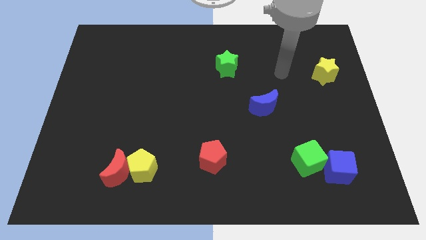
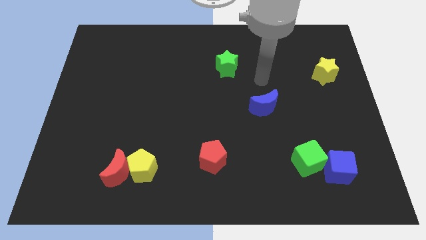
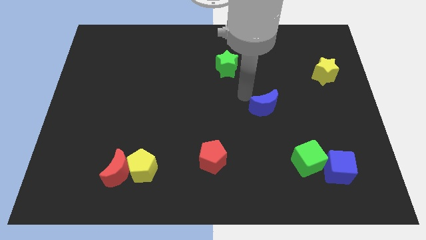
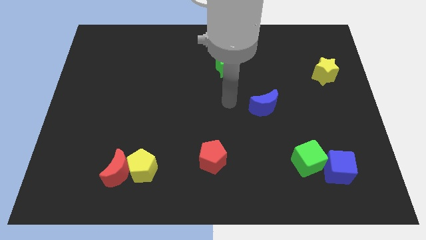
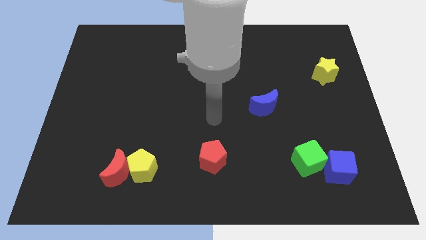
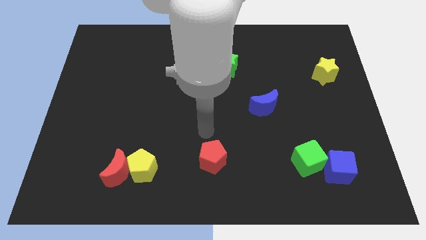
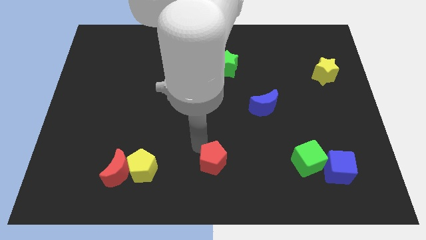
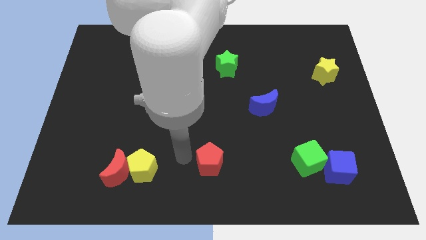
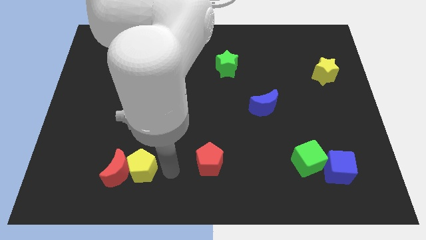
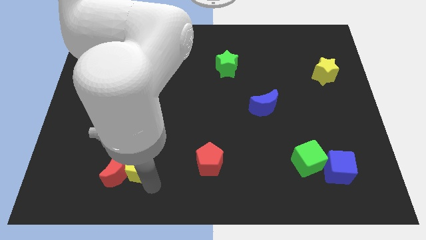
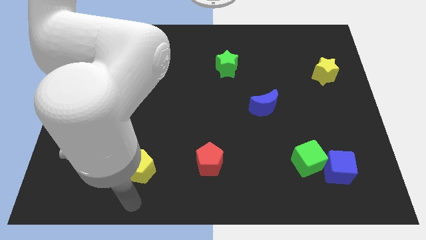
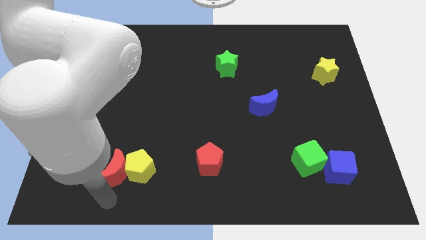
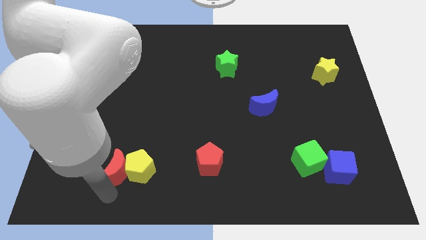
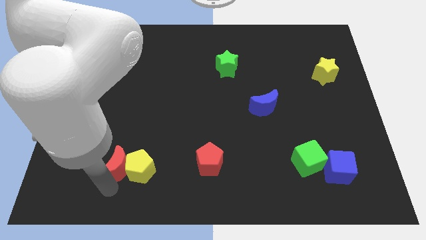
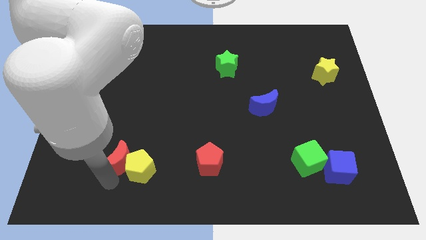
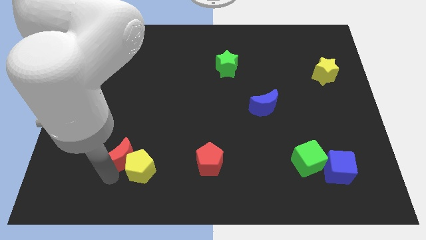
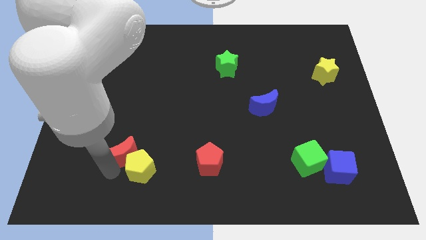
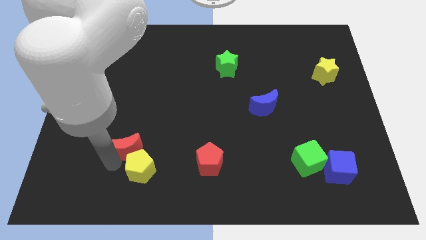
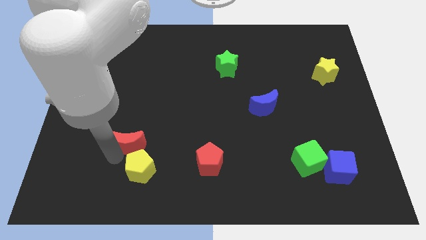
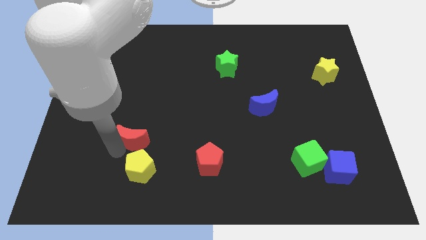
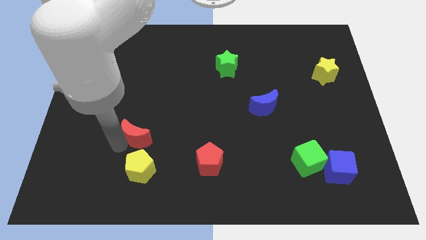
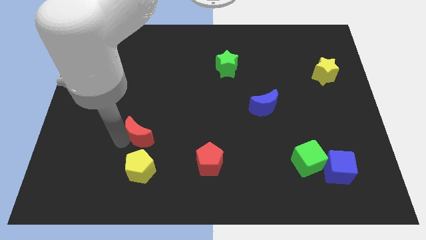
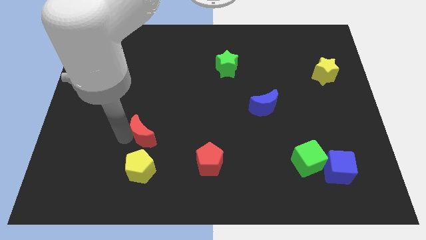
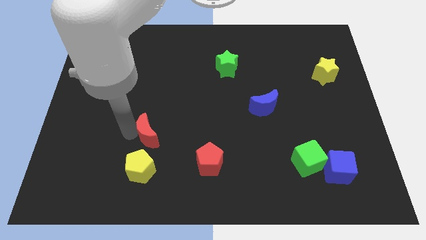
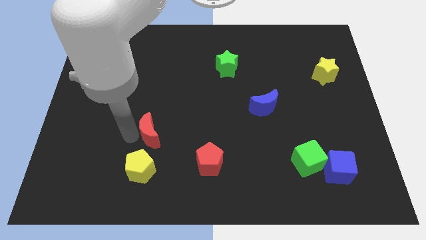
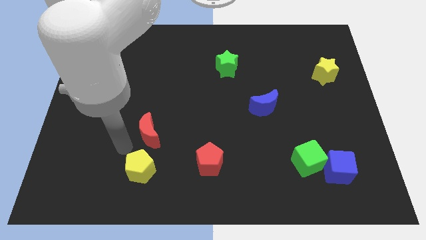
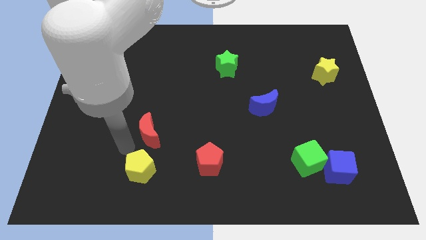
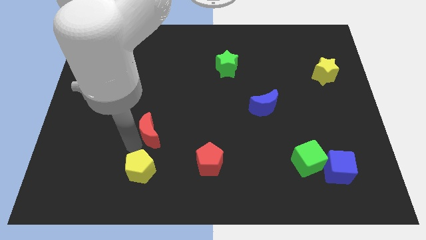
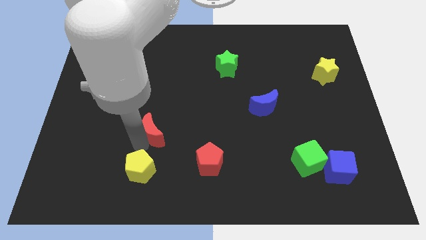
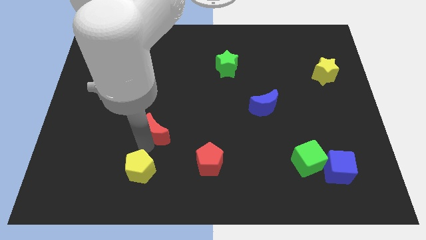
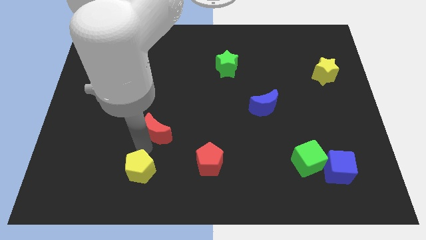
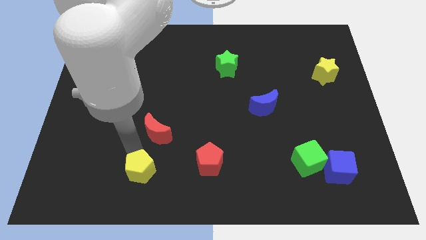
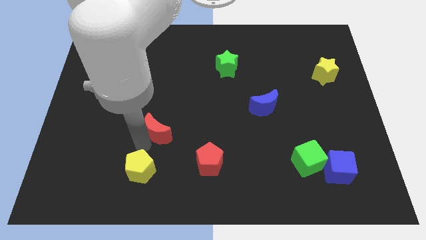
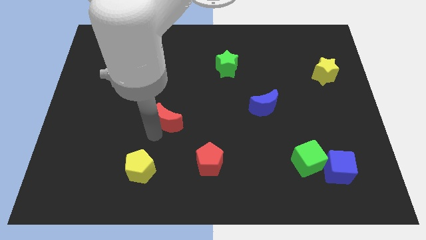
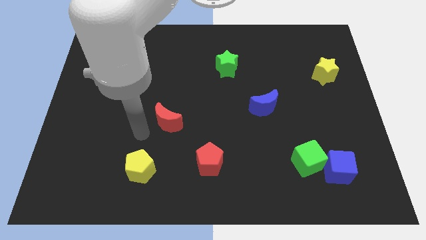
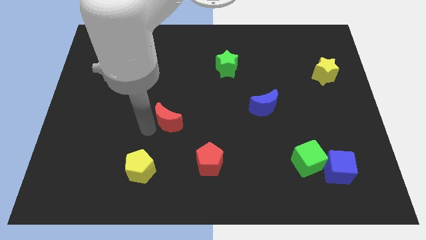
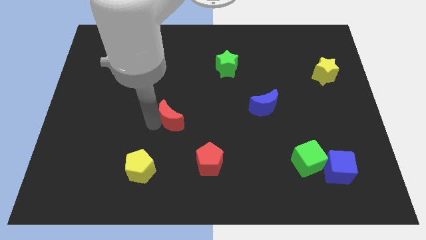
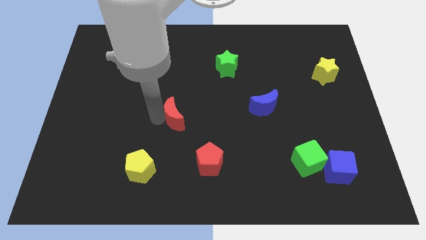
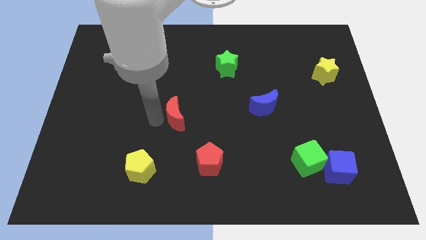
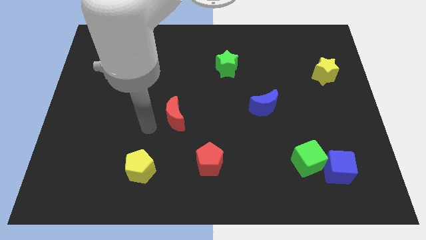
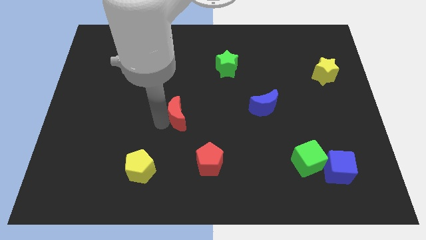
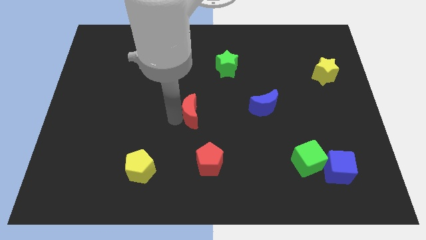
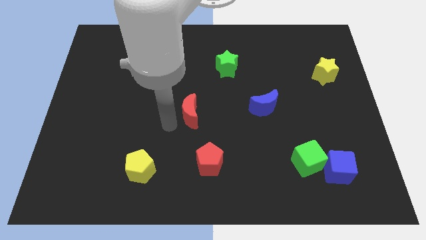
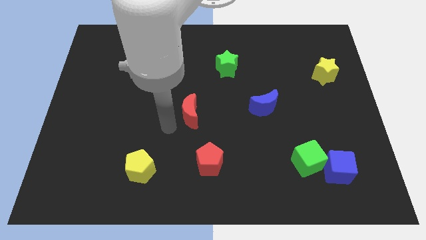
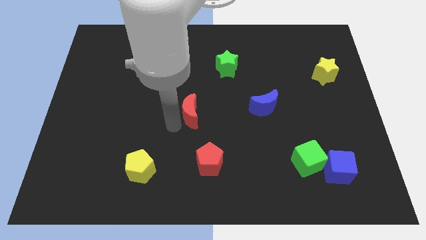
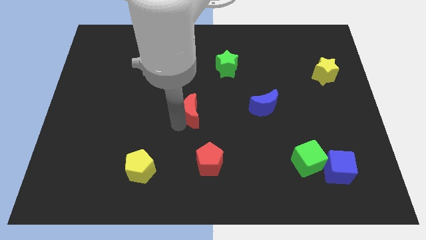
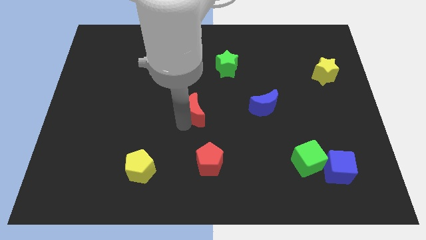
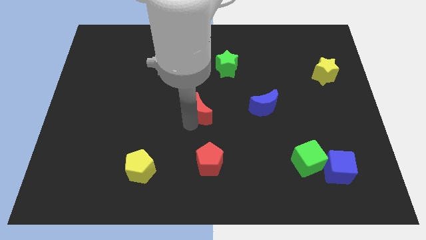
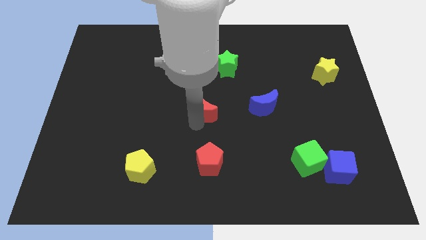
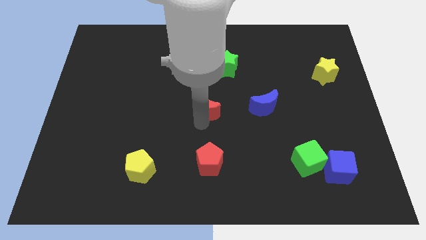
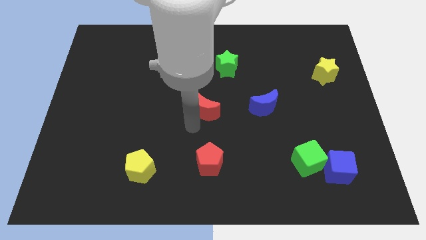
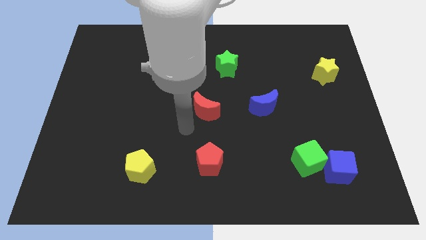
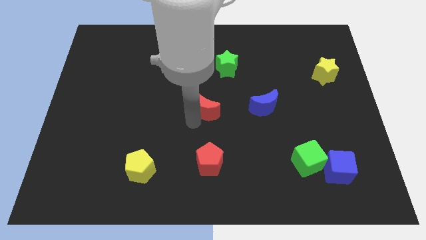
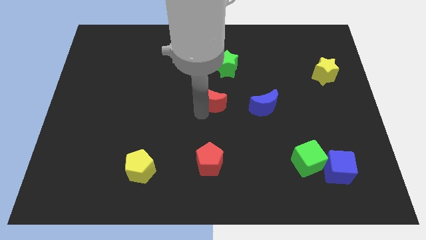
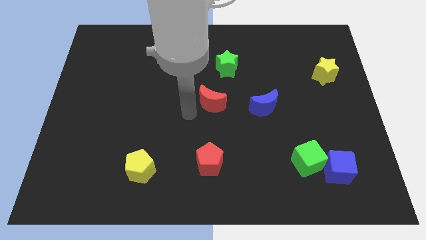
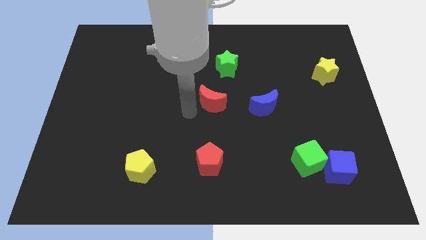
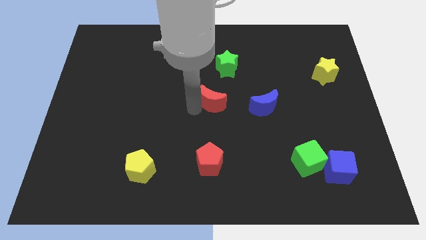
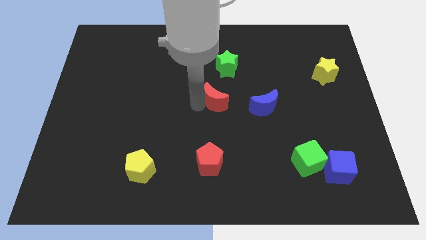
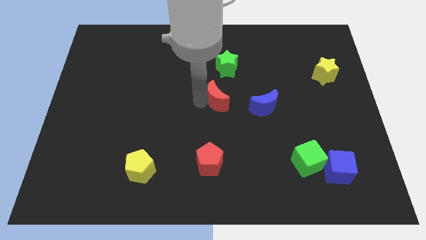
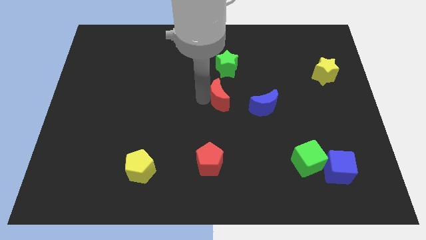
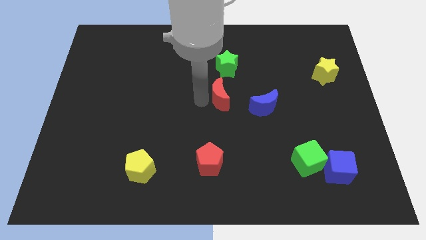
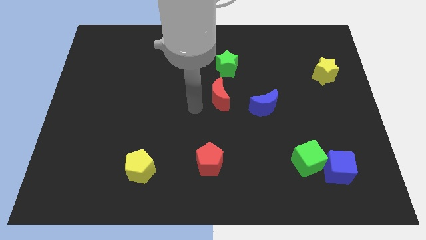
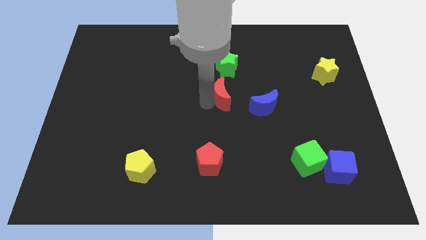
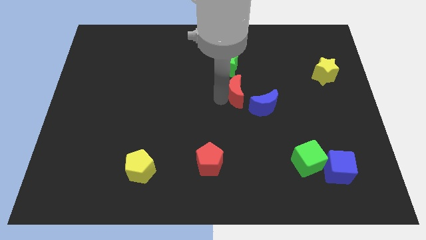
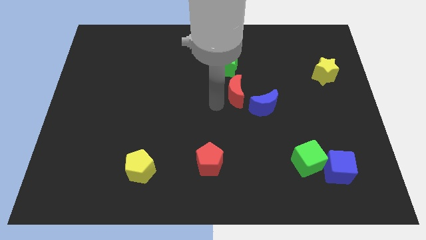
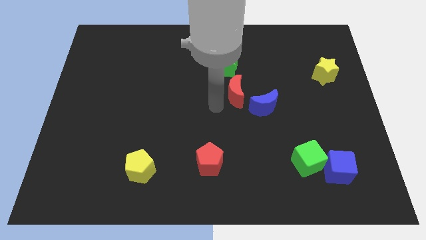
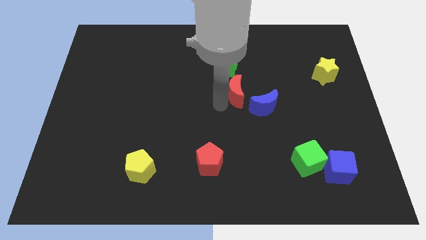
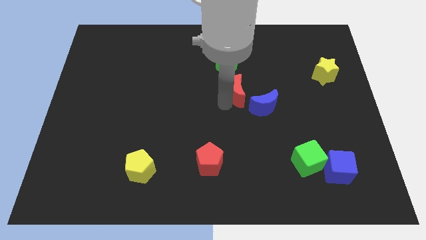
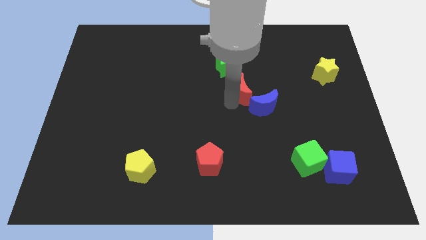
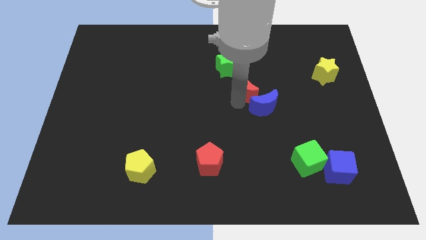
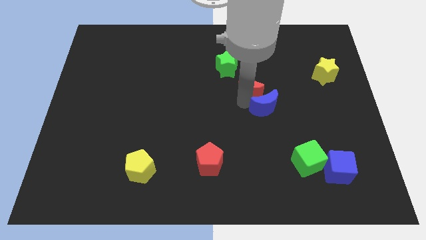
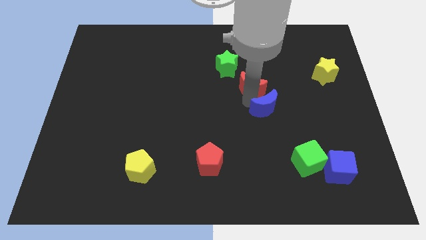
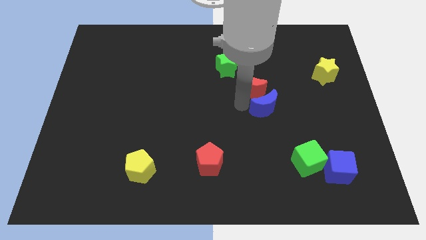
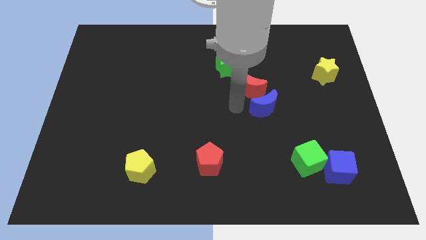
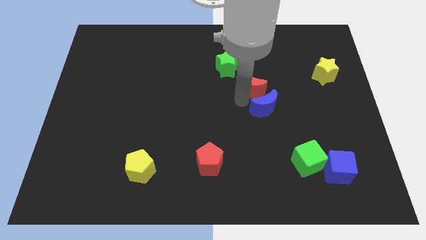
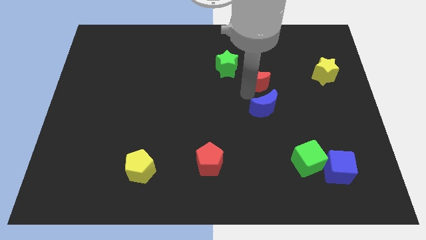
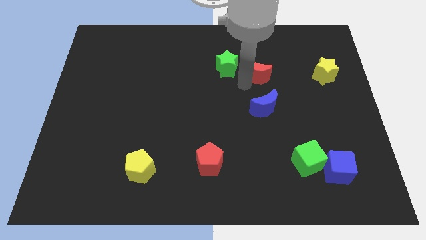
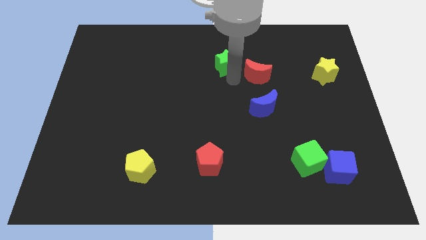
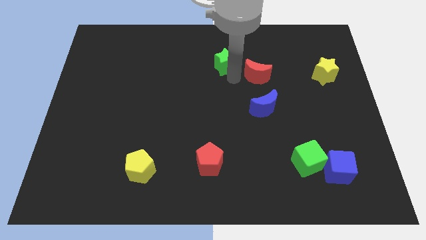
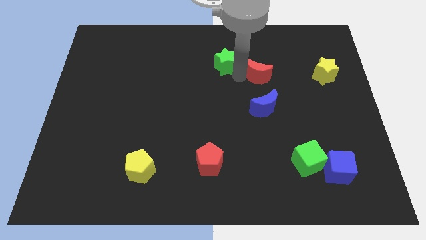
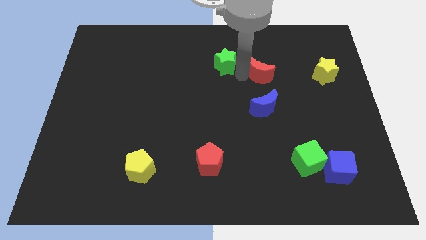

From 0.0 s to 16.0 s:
put the red moon to the left of the yellow star
